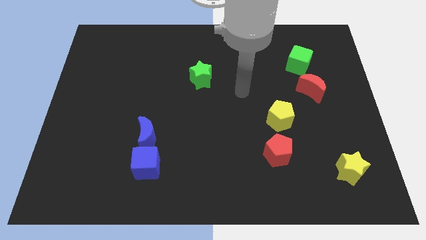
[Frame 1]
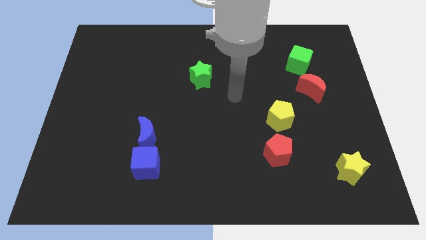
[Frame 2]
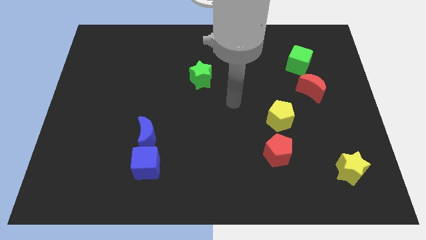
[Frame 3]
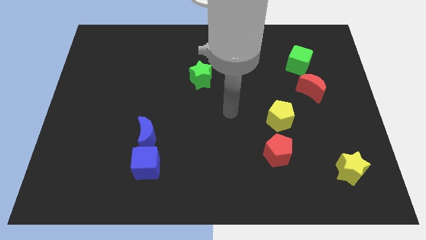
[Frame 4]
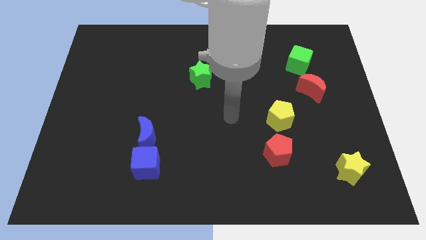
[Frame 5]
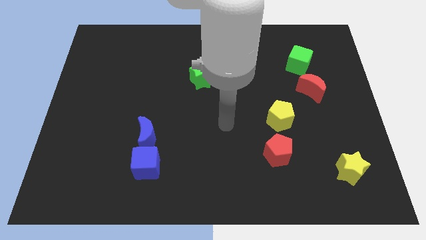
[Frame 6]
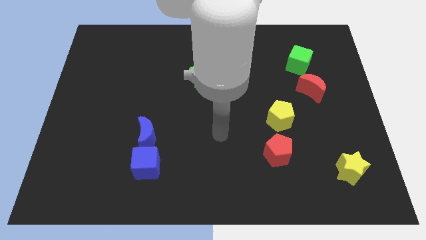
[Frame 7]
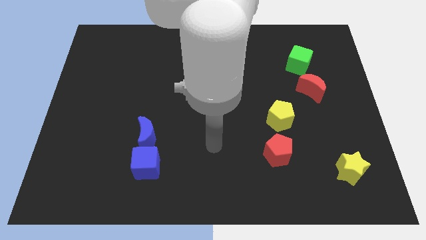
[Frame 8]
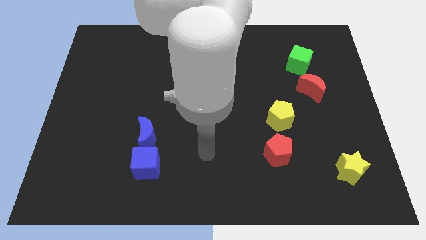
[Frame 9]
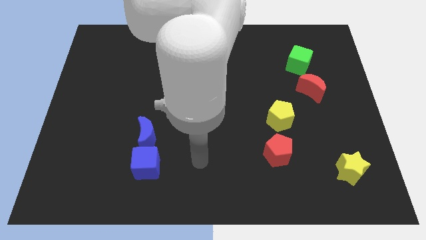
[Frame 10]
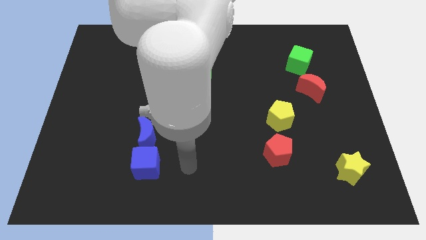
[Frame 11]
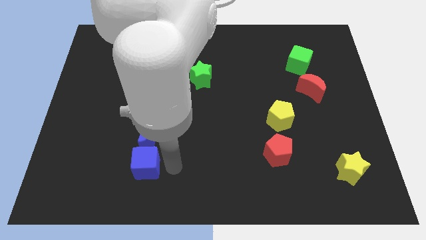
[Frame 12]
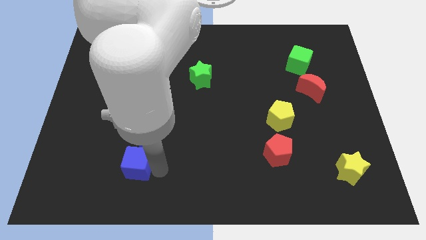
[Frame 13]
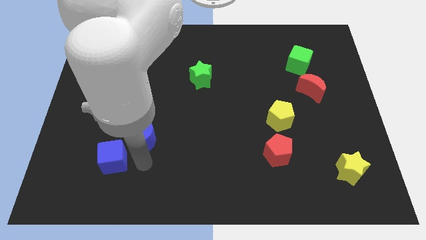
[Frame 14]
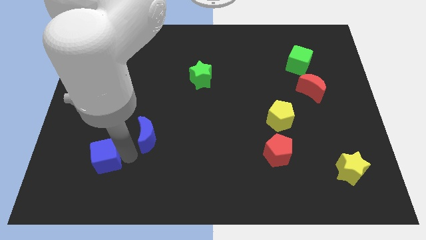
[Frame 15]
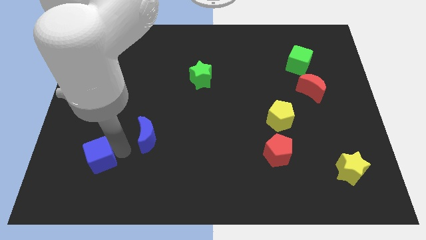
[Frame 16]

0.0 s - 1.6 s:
separate the blue moon from the blue cube

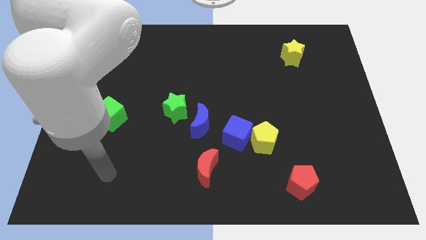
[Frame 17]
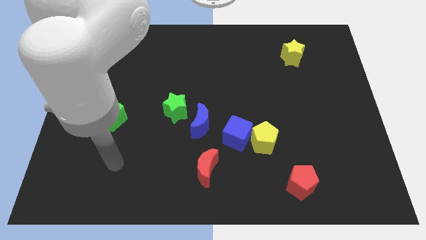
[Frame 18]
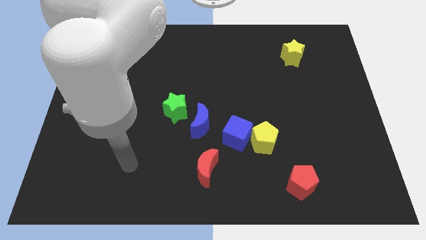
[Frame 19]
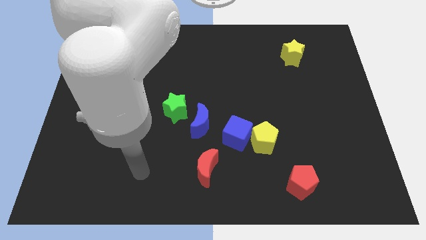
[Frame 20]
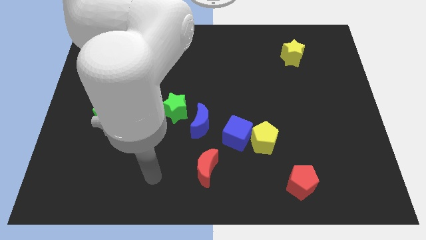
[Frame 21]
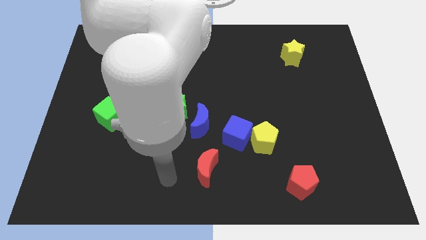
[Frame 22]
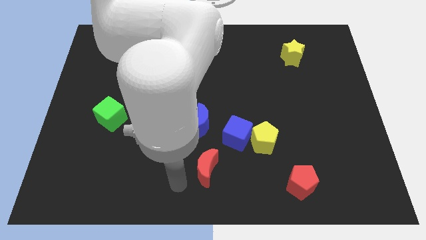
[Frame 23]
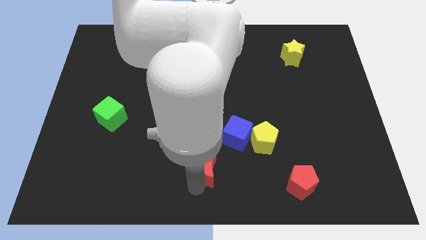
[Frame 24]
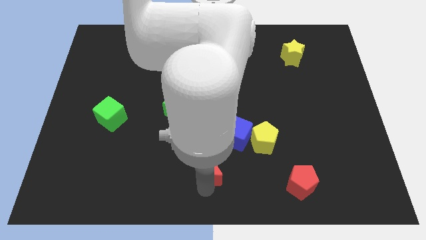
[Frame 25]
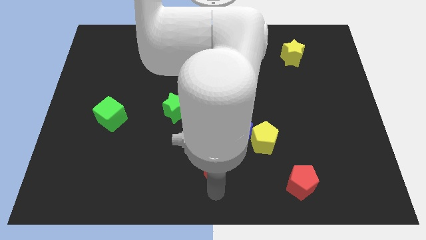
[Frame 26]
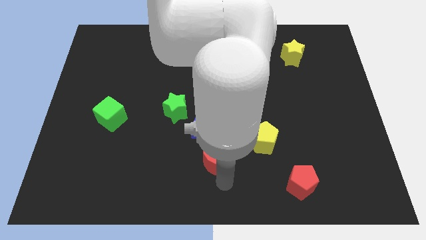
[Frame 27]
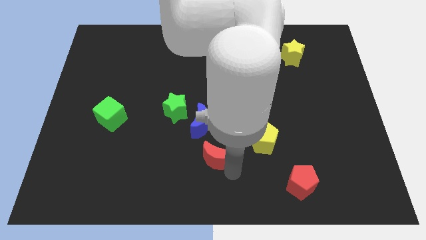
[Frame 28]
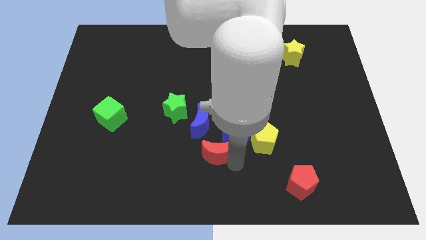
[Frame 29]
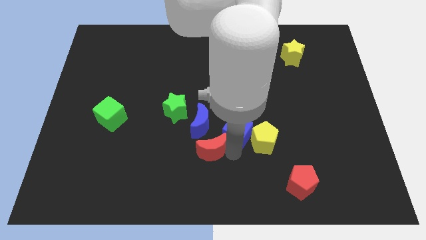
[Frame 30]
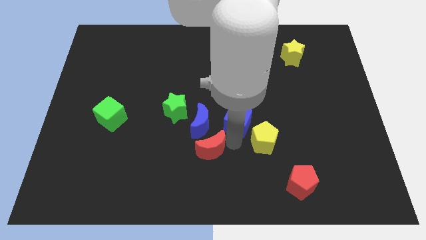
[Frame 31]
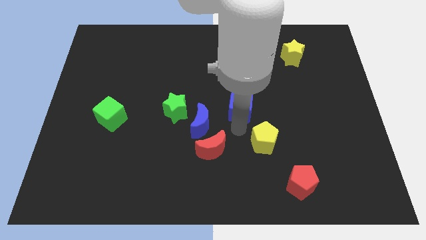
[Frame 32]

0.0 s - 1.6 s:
separate the yellow pentagon from the blue cube

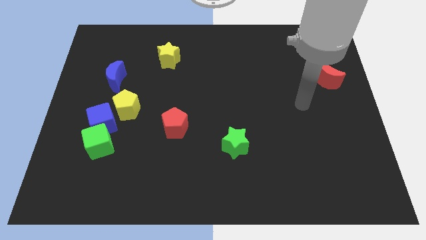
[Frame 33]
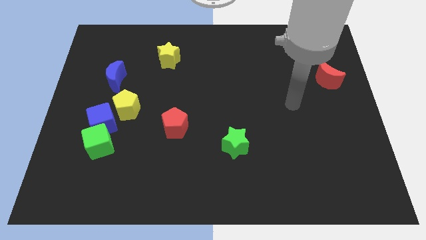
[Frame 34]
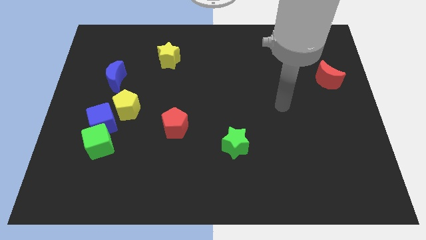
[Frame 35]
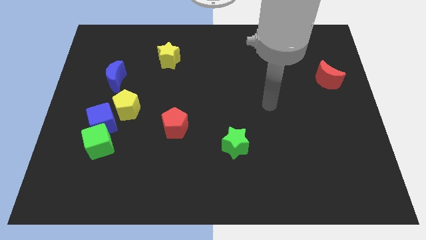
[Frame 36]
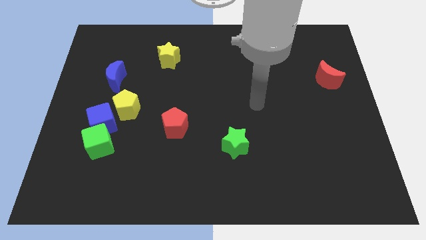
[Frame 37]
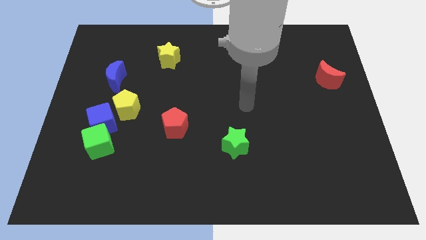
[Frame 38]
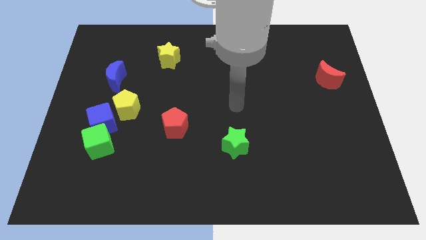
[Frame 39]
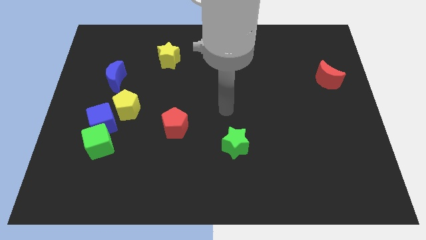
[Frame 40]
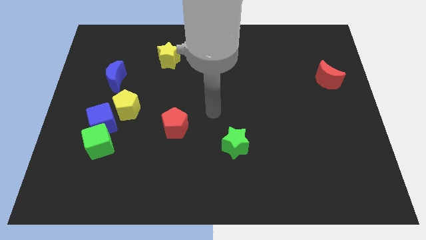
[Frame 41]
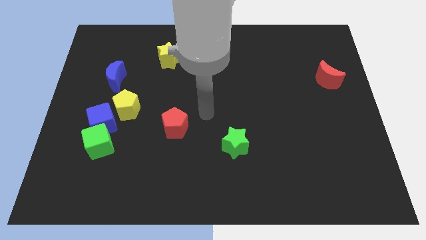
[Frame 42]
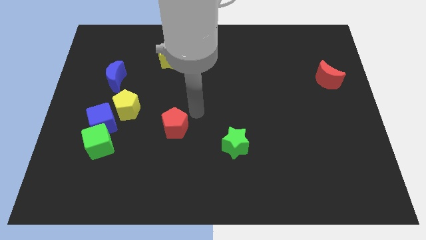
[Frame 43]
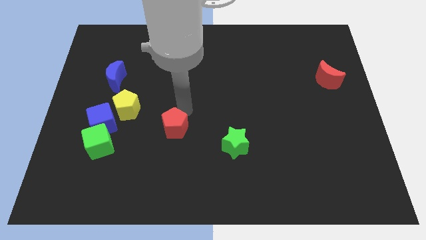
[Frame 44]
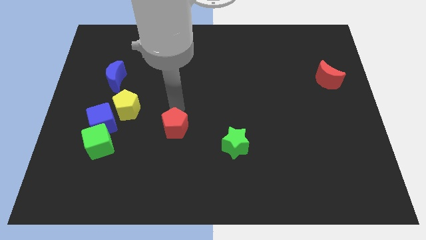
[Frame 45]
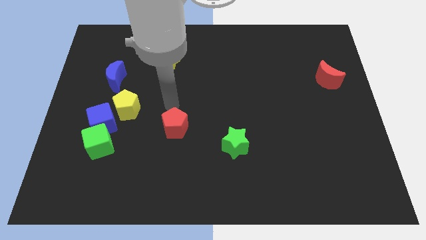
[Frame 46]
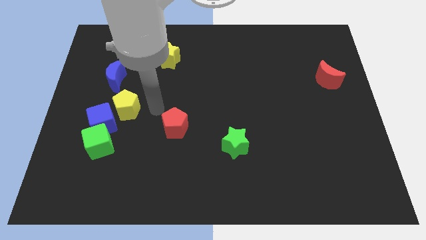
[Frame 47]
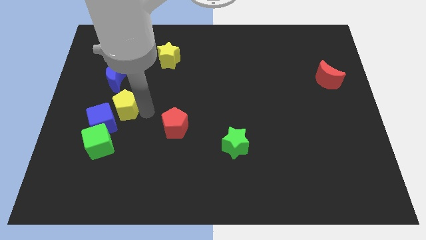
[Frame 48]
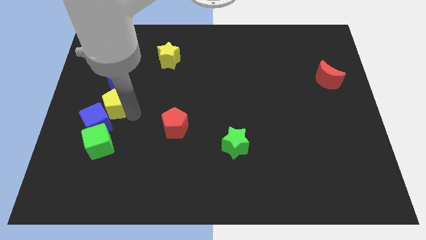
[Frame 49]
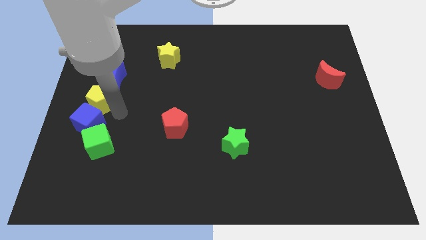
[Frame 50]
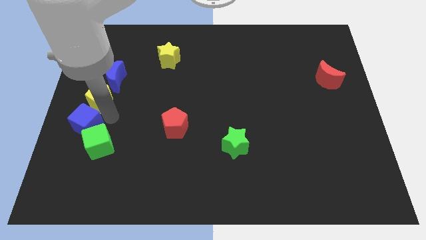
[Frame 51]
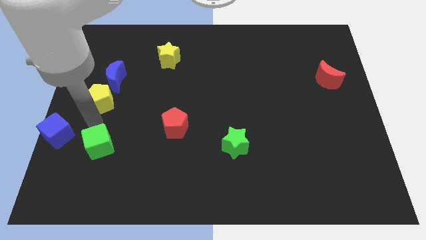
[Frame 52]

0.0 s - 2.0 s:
move the green cube away from the blue cube

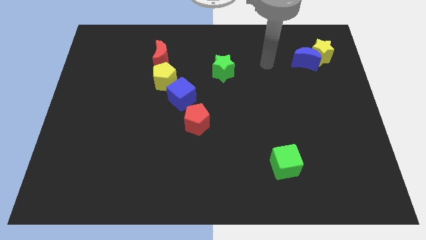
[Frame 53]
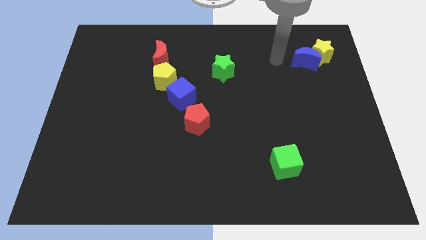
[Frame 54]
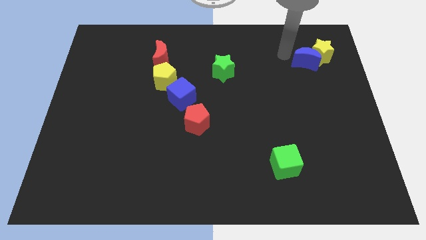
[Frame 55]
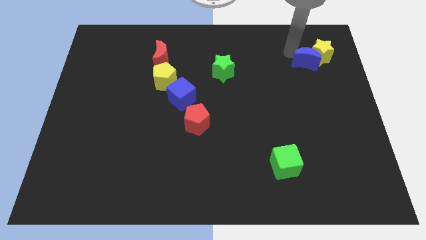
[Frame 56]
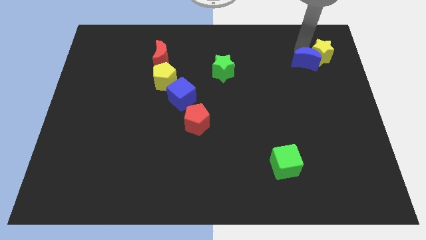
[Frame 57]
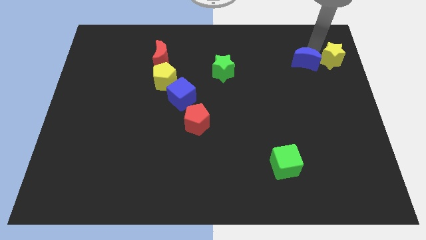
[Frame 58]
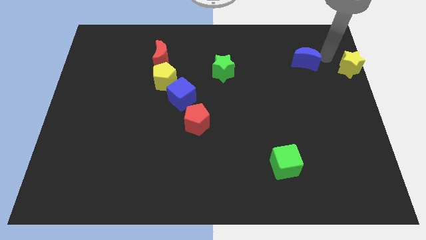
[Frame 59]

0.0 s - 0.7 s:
pull the blue moon apart from the yellow star

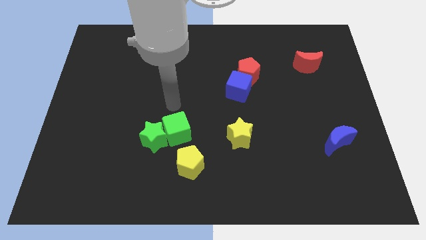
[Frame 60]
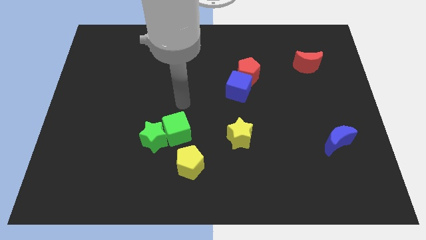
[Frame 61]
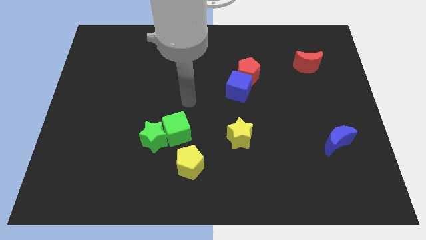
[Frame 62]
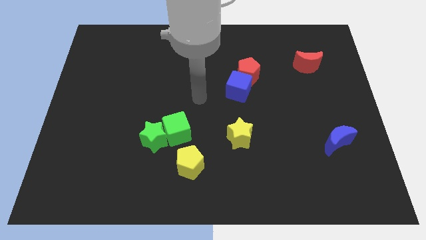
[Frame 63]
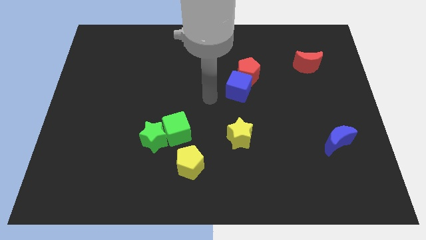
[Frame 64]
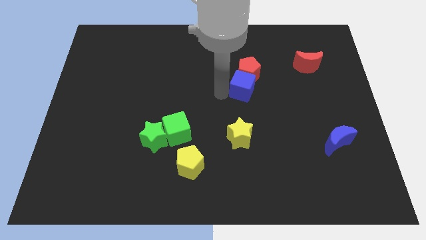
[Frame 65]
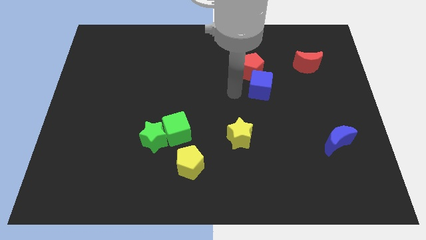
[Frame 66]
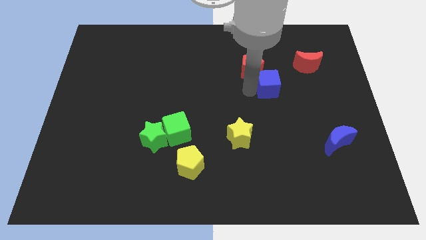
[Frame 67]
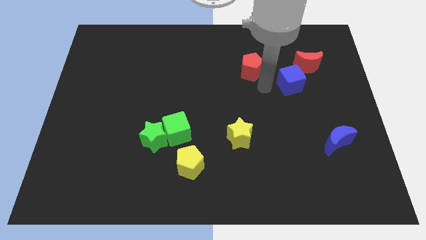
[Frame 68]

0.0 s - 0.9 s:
pull the red pentagon apart from the blue cube

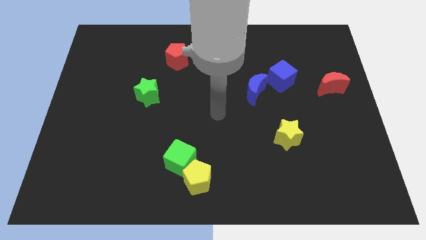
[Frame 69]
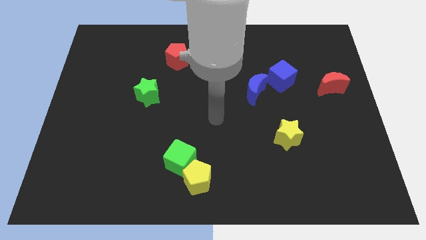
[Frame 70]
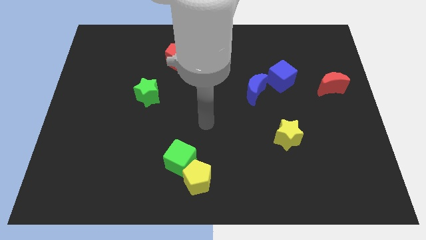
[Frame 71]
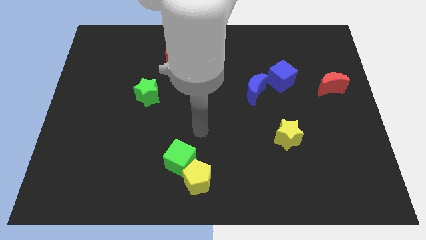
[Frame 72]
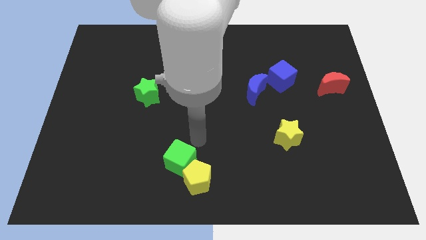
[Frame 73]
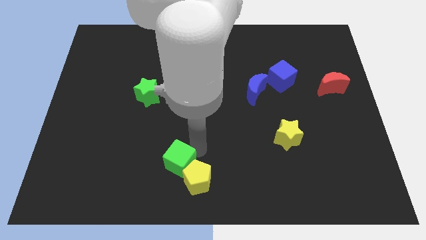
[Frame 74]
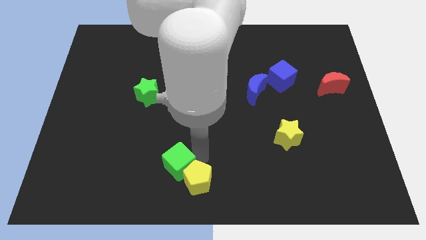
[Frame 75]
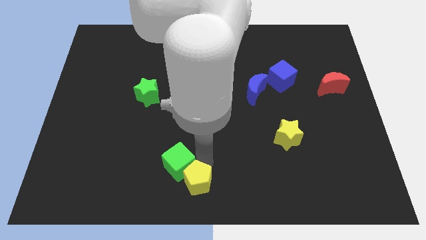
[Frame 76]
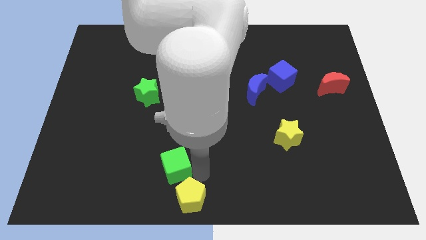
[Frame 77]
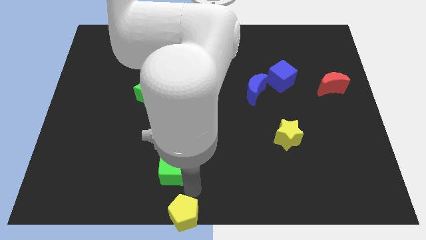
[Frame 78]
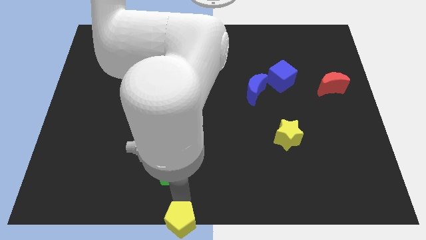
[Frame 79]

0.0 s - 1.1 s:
separate the green cube from the yellow pentagon

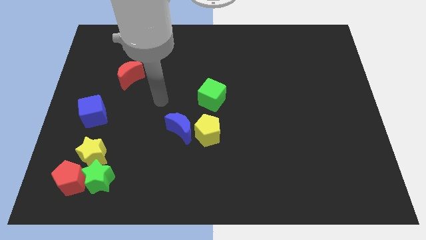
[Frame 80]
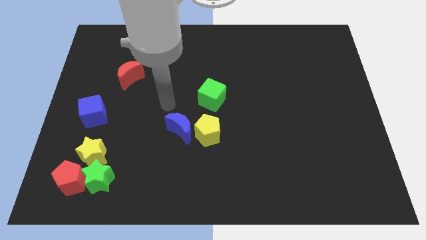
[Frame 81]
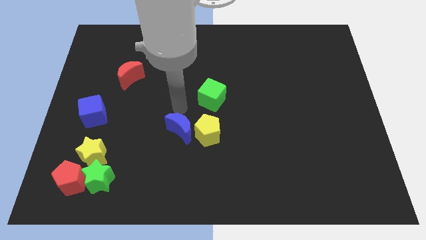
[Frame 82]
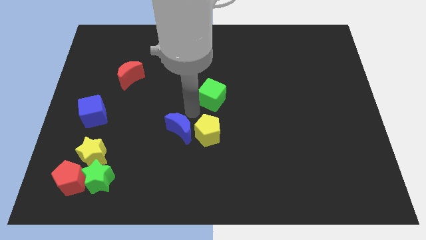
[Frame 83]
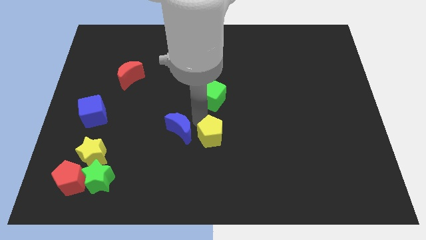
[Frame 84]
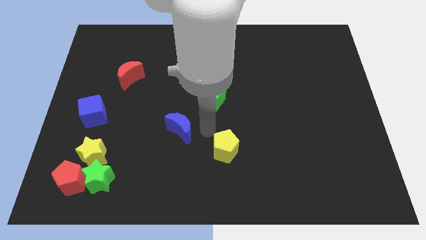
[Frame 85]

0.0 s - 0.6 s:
separate the blue moon from the yellow pentagon

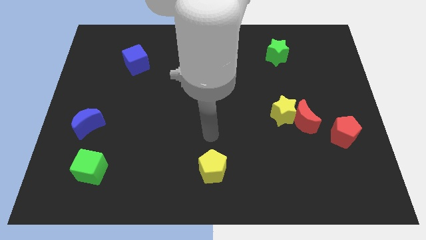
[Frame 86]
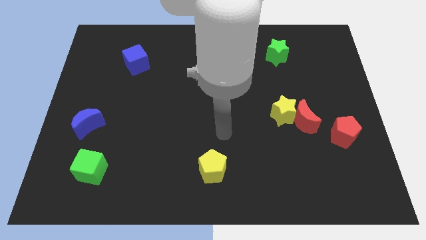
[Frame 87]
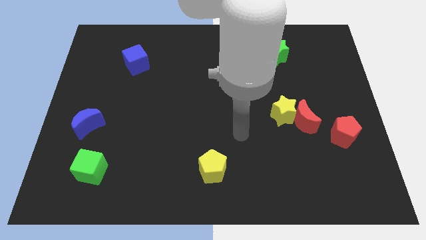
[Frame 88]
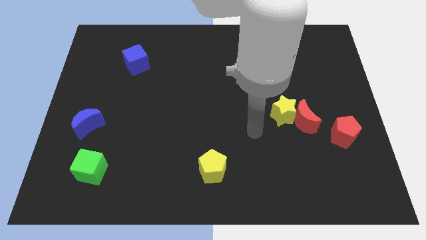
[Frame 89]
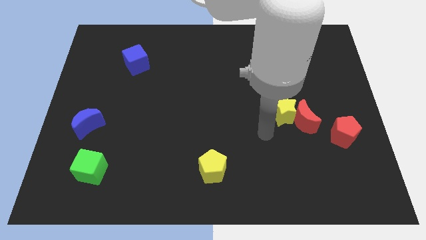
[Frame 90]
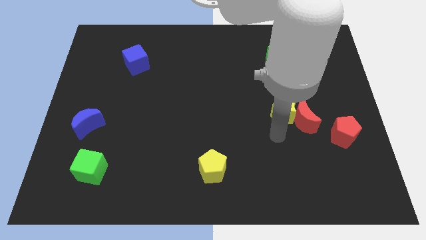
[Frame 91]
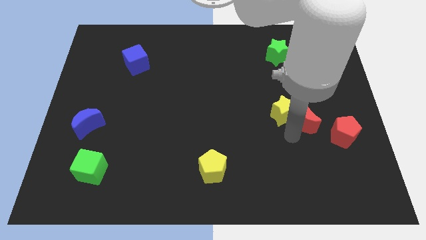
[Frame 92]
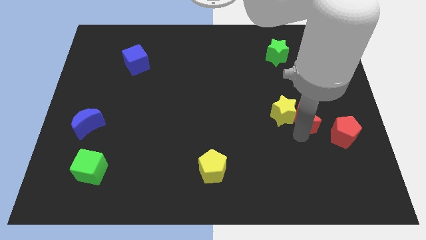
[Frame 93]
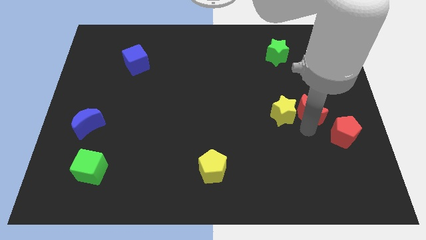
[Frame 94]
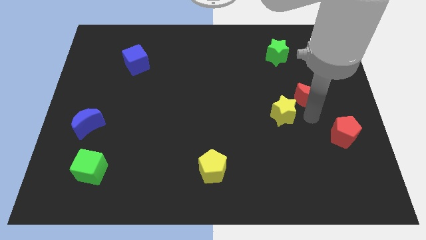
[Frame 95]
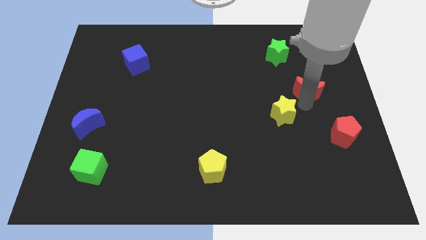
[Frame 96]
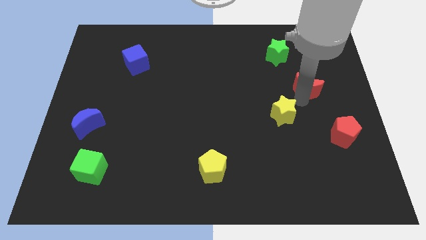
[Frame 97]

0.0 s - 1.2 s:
move the yellow star away from the red moon
